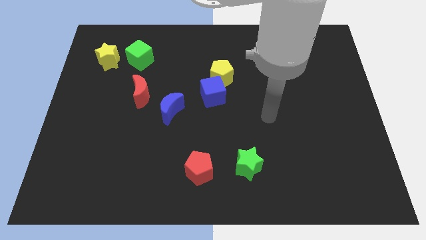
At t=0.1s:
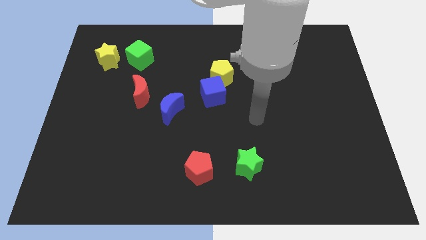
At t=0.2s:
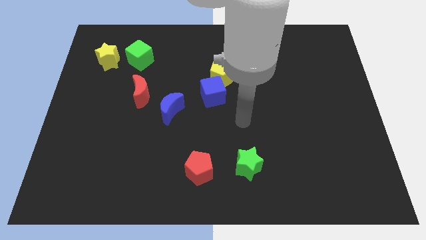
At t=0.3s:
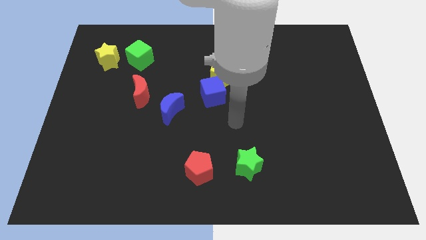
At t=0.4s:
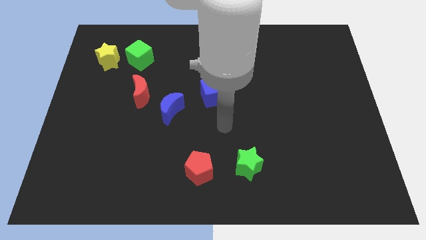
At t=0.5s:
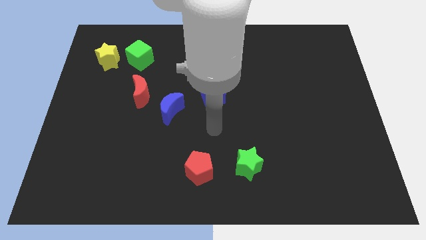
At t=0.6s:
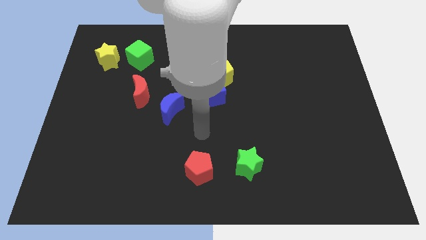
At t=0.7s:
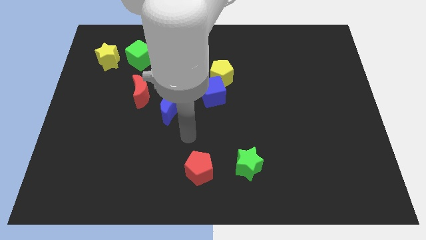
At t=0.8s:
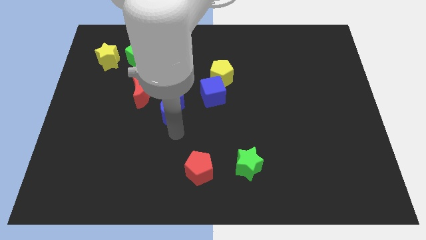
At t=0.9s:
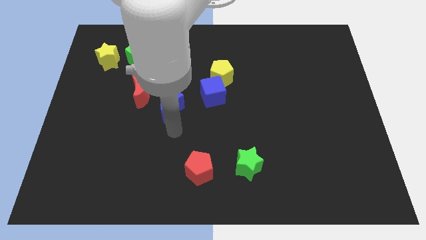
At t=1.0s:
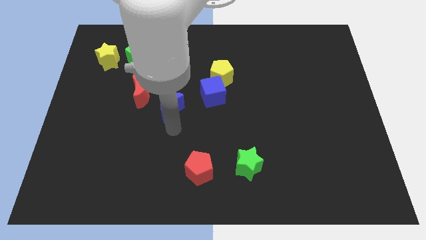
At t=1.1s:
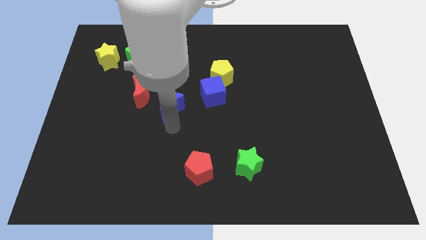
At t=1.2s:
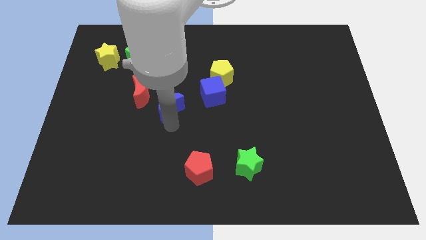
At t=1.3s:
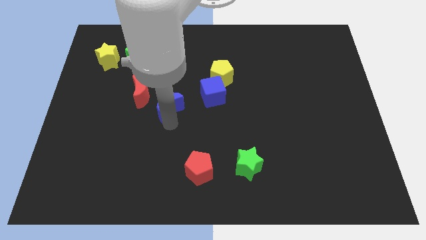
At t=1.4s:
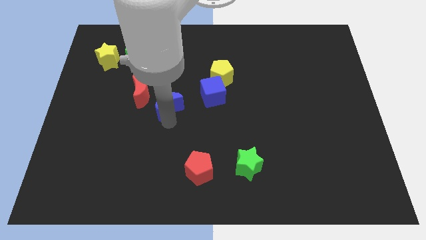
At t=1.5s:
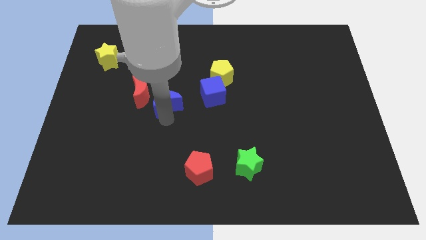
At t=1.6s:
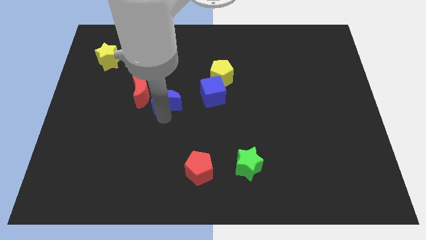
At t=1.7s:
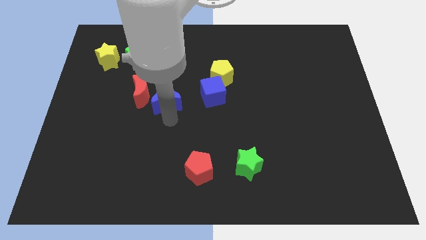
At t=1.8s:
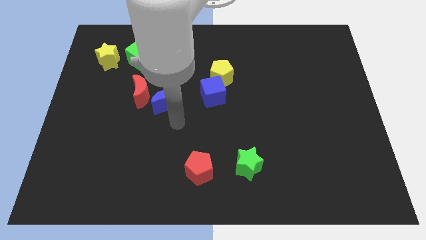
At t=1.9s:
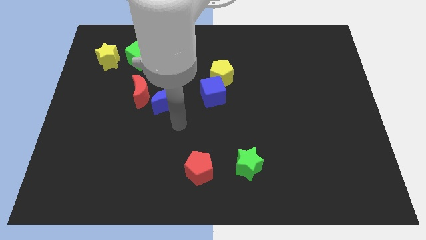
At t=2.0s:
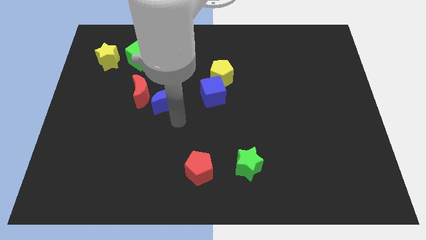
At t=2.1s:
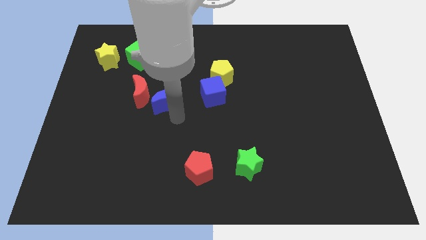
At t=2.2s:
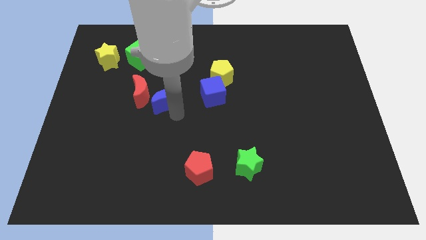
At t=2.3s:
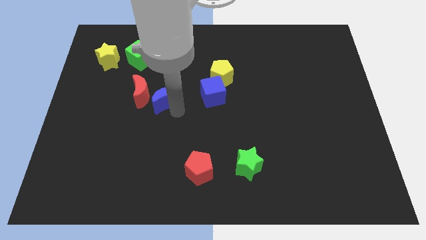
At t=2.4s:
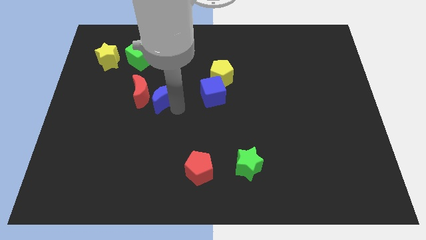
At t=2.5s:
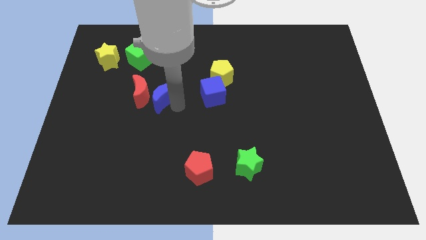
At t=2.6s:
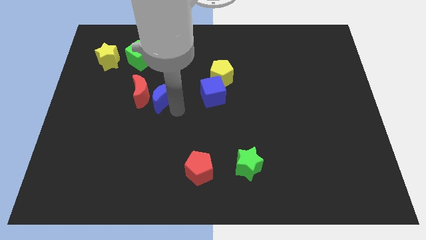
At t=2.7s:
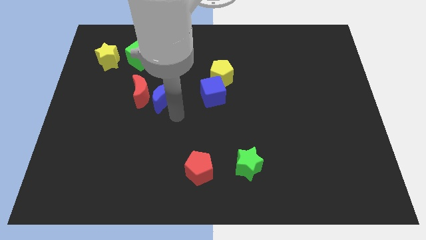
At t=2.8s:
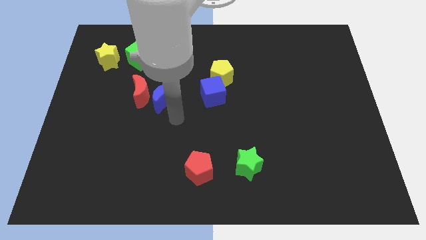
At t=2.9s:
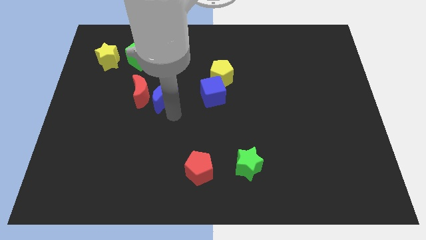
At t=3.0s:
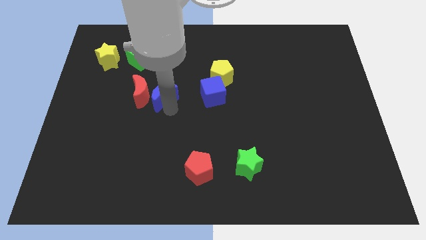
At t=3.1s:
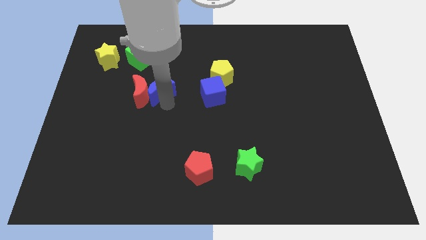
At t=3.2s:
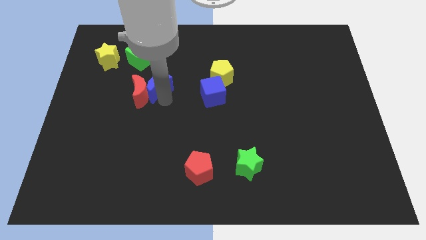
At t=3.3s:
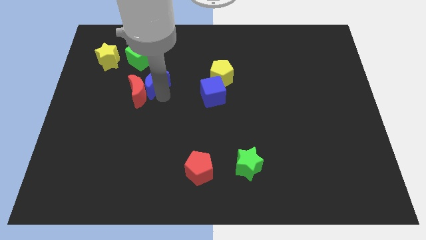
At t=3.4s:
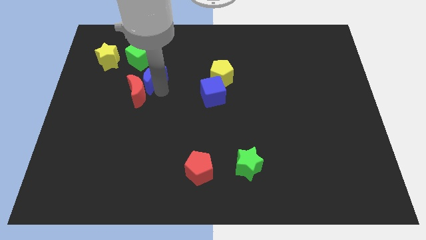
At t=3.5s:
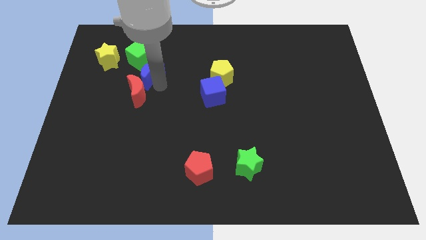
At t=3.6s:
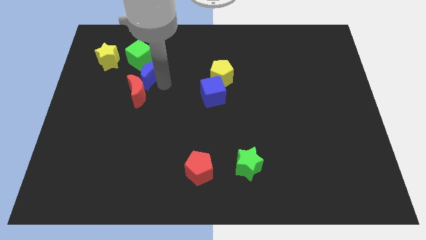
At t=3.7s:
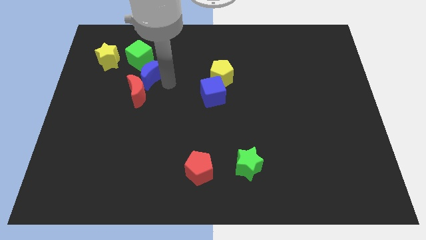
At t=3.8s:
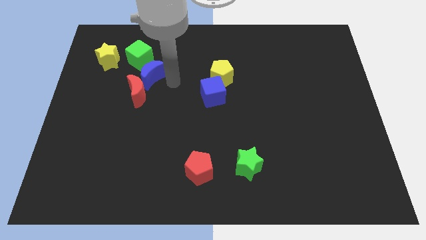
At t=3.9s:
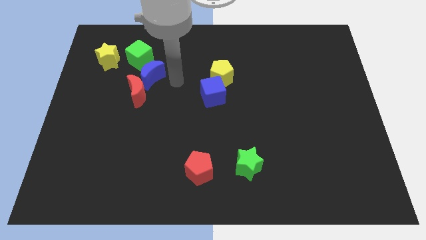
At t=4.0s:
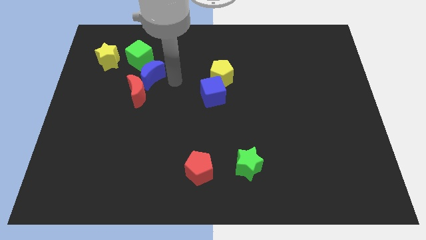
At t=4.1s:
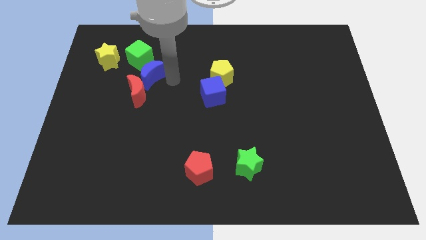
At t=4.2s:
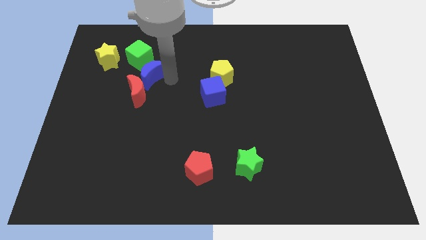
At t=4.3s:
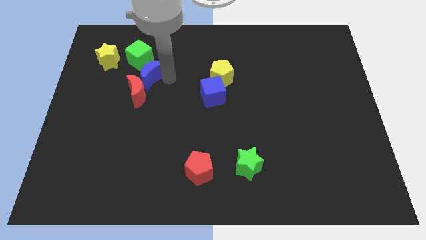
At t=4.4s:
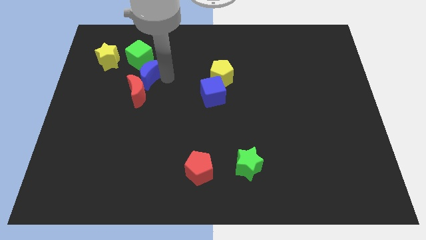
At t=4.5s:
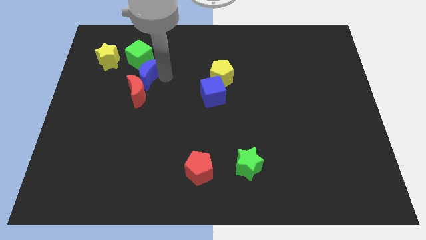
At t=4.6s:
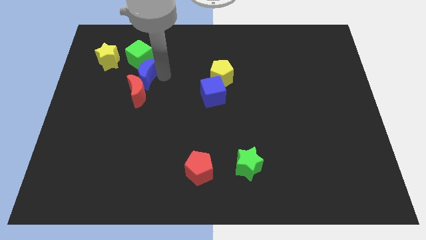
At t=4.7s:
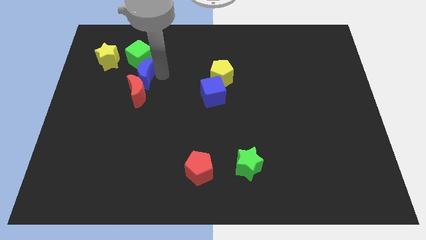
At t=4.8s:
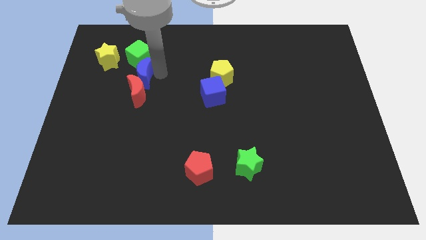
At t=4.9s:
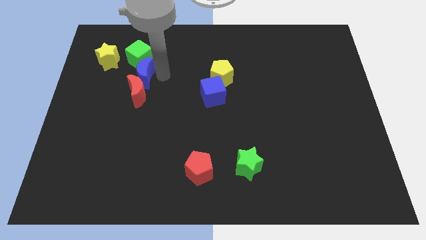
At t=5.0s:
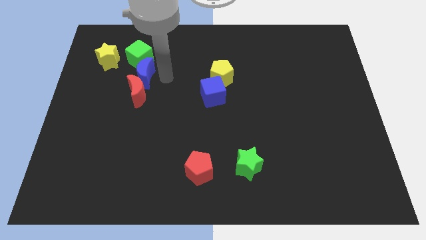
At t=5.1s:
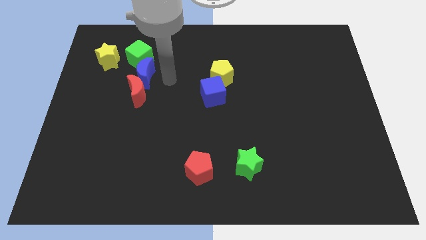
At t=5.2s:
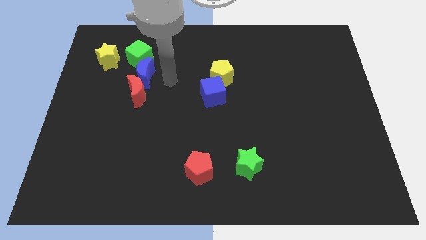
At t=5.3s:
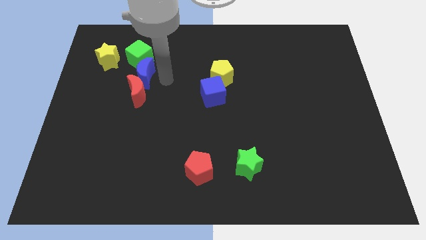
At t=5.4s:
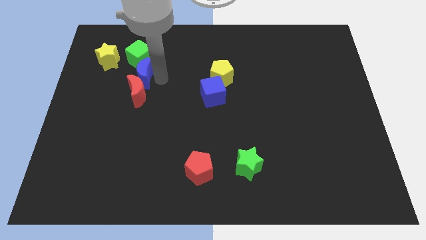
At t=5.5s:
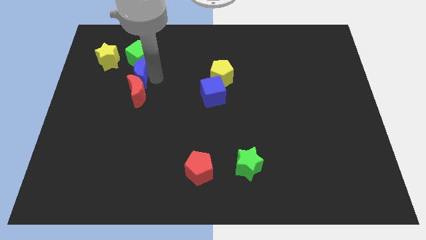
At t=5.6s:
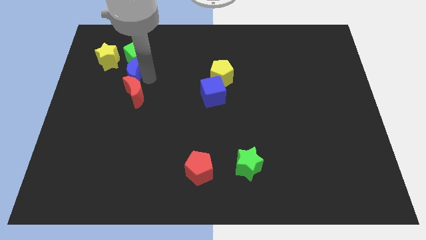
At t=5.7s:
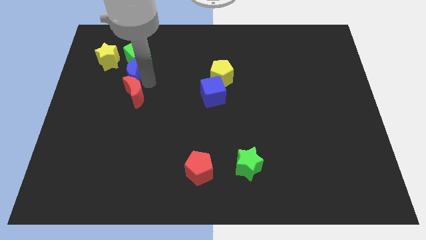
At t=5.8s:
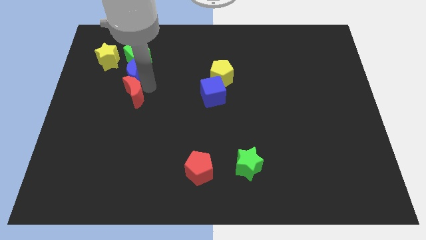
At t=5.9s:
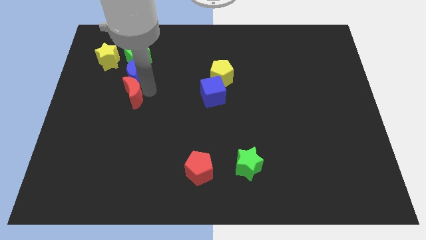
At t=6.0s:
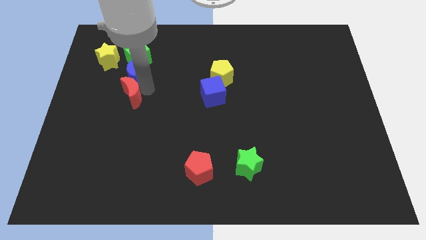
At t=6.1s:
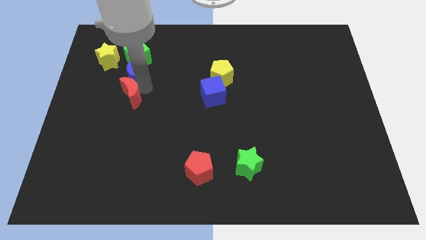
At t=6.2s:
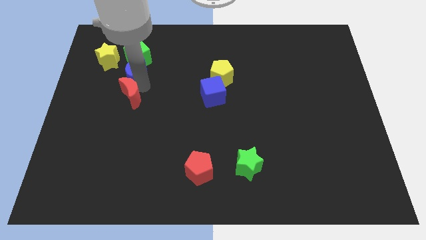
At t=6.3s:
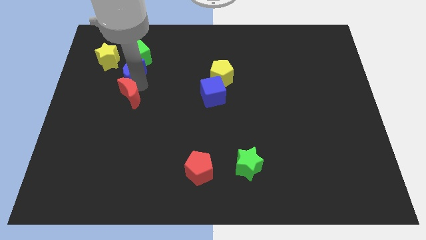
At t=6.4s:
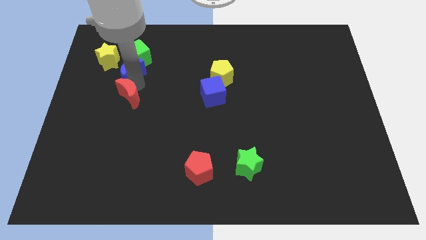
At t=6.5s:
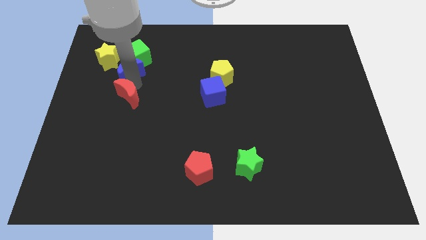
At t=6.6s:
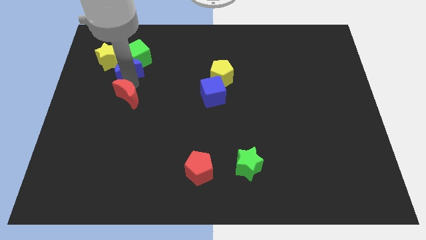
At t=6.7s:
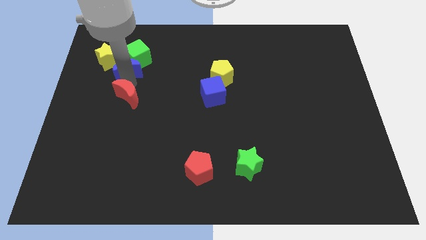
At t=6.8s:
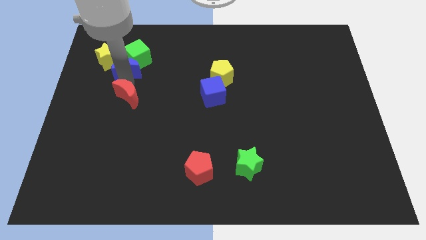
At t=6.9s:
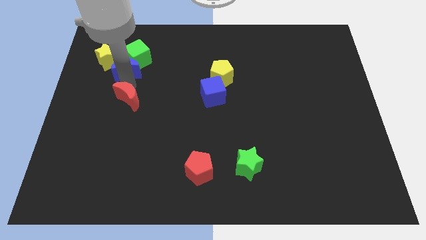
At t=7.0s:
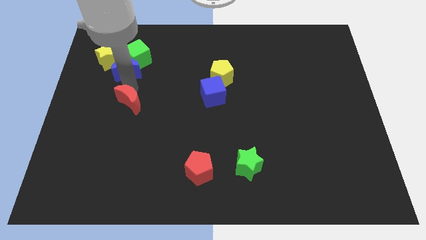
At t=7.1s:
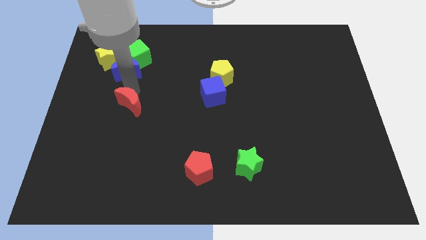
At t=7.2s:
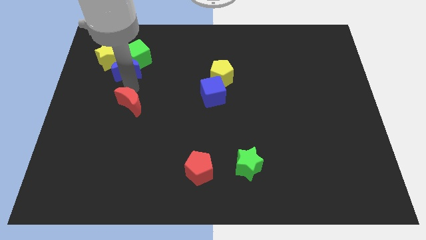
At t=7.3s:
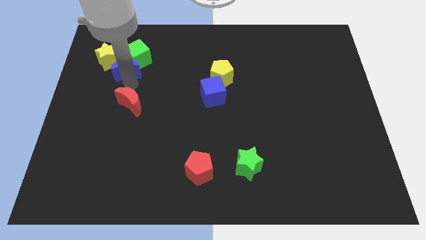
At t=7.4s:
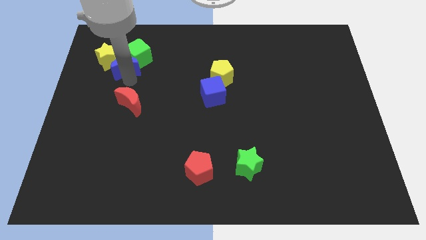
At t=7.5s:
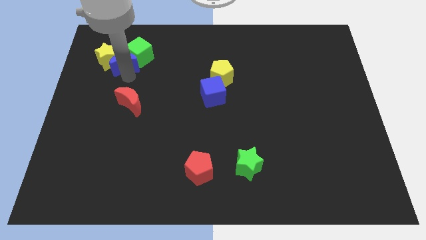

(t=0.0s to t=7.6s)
slide the blue moon to the yellow star
